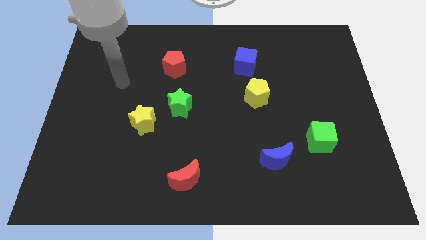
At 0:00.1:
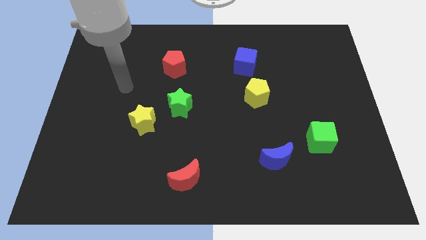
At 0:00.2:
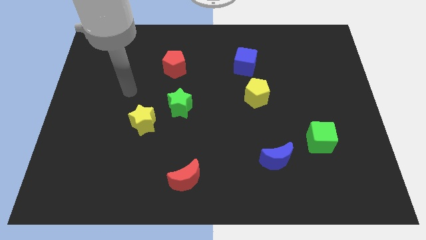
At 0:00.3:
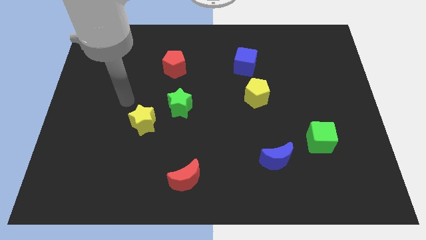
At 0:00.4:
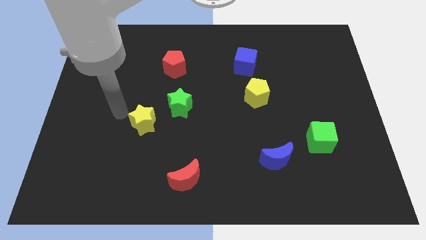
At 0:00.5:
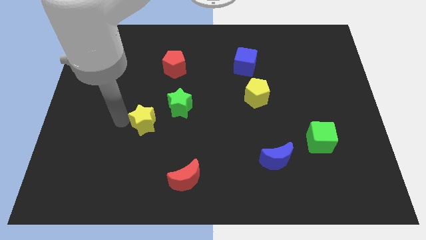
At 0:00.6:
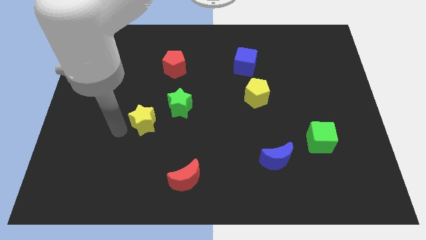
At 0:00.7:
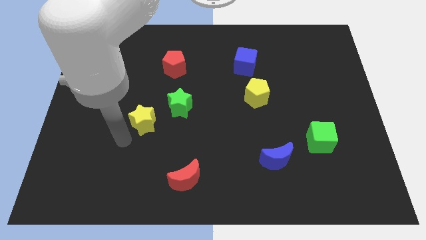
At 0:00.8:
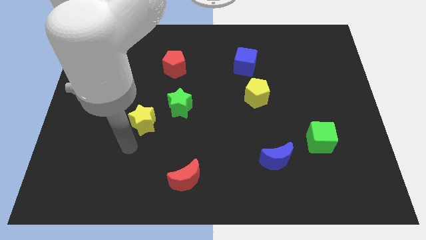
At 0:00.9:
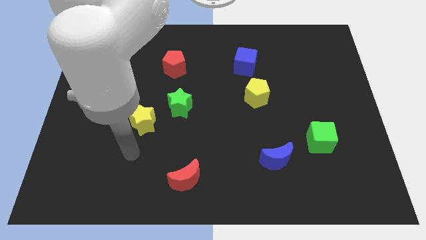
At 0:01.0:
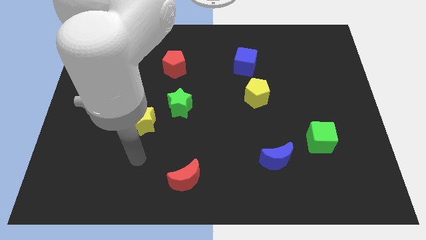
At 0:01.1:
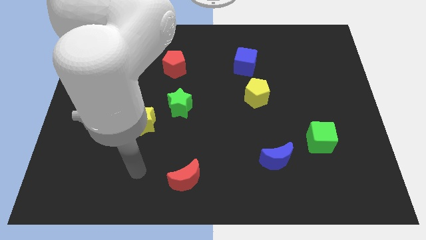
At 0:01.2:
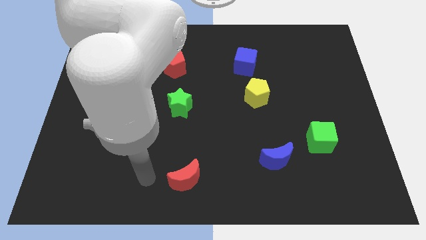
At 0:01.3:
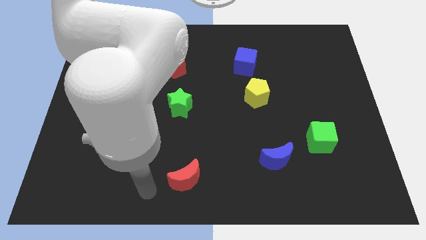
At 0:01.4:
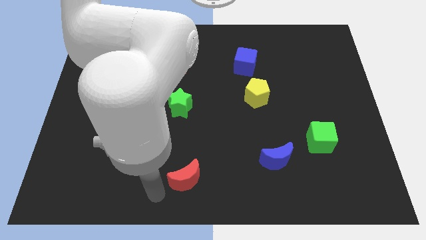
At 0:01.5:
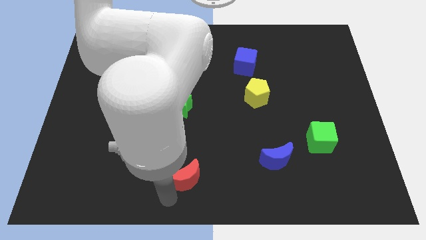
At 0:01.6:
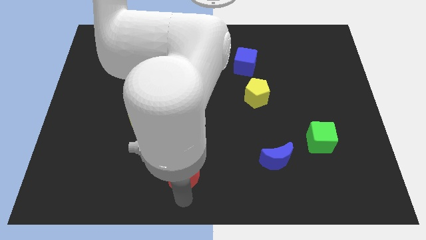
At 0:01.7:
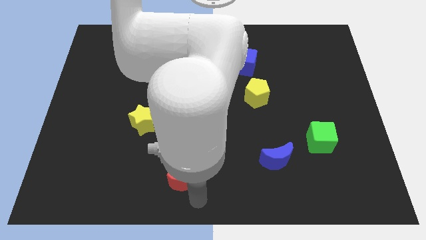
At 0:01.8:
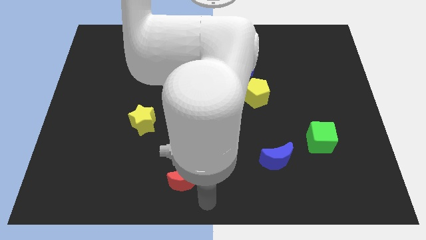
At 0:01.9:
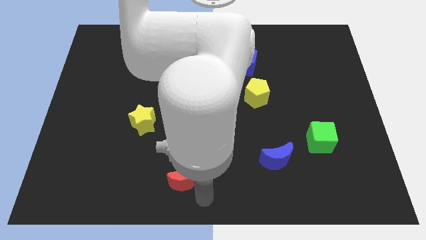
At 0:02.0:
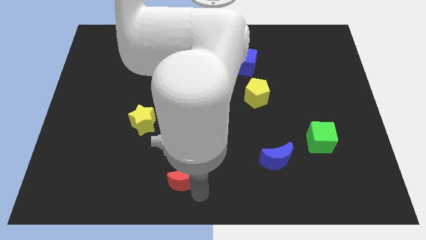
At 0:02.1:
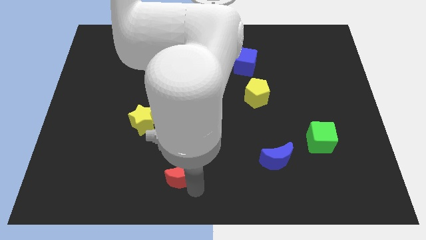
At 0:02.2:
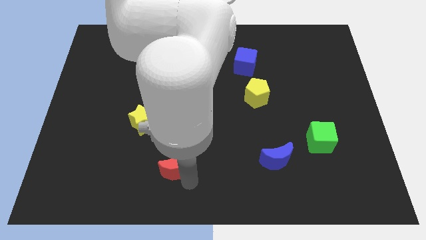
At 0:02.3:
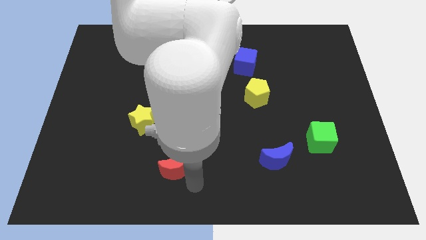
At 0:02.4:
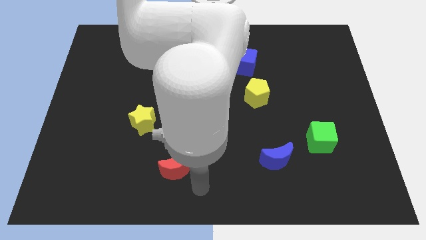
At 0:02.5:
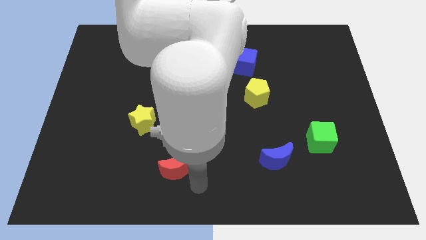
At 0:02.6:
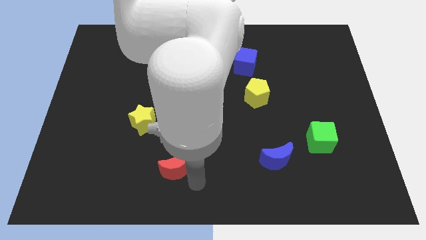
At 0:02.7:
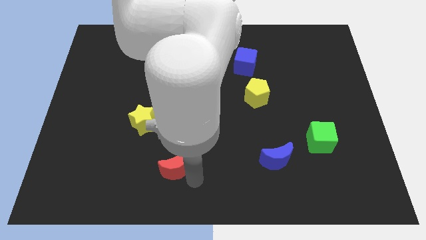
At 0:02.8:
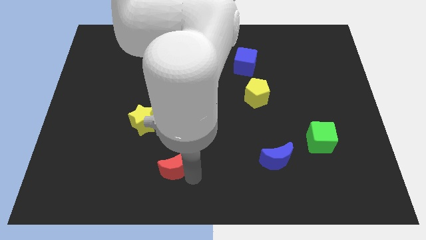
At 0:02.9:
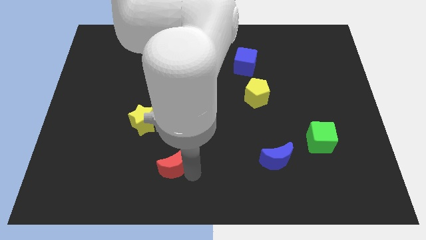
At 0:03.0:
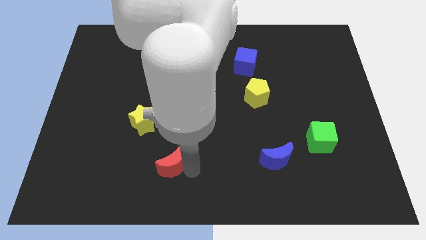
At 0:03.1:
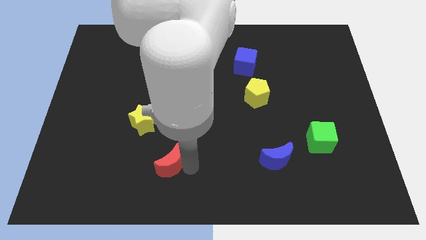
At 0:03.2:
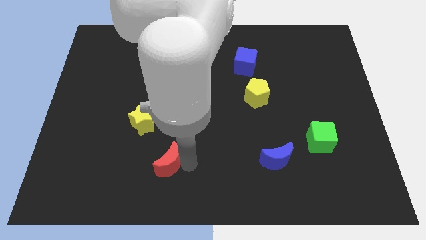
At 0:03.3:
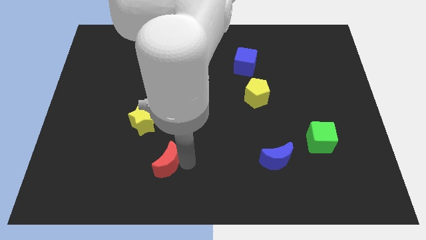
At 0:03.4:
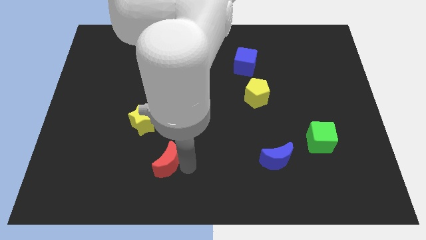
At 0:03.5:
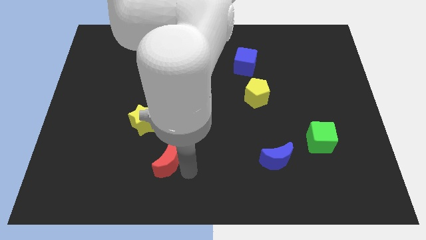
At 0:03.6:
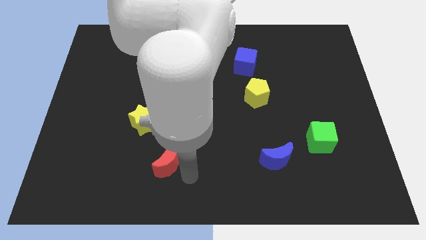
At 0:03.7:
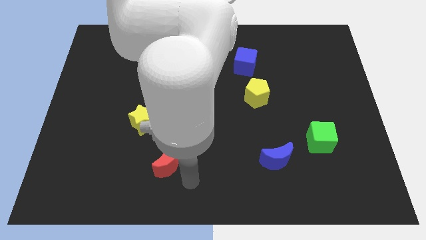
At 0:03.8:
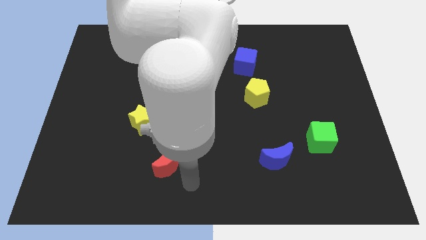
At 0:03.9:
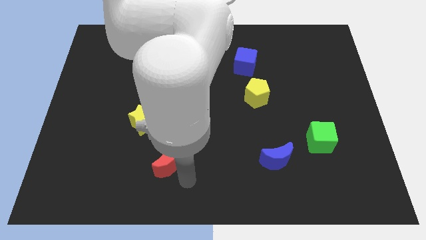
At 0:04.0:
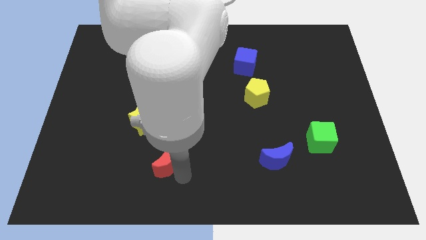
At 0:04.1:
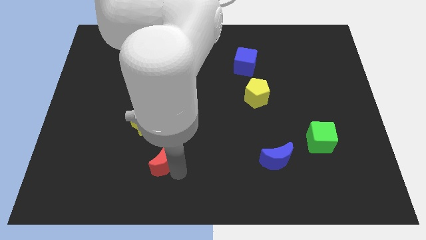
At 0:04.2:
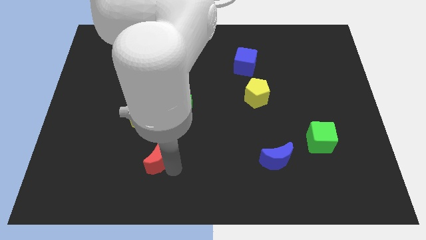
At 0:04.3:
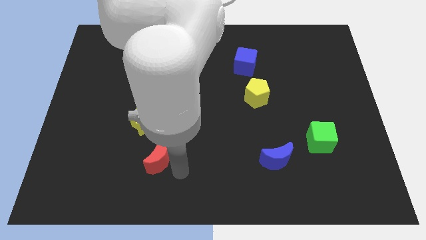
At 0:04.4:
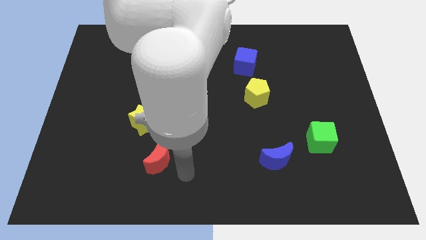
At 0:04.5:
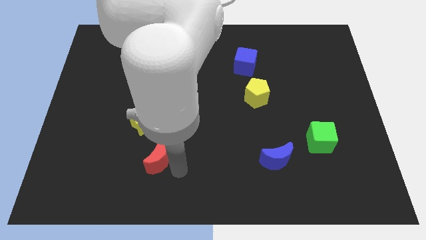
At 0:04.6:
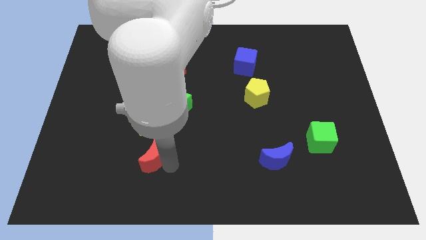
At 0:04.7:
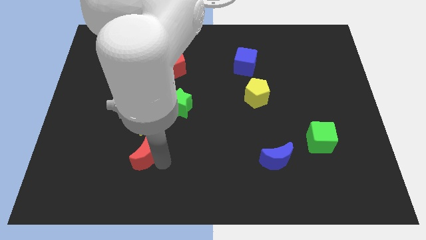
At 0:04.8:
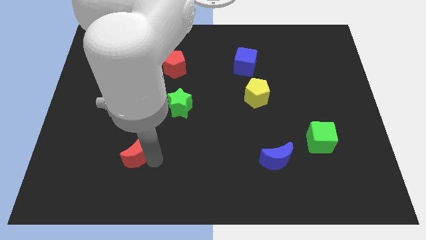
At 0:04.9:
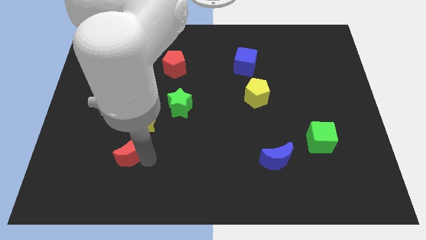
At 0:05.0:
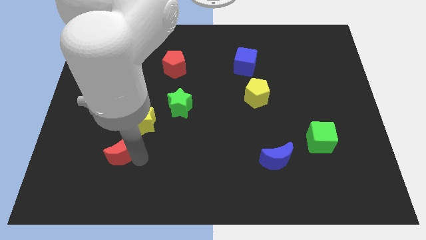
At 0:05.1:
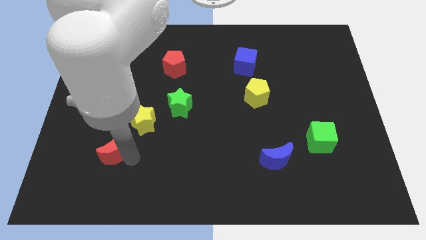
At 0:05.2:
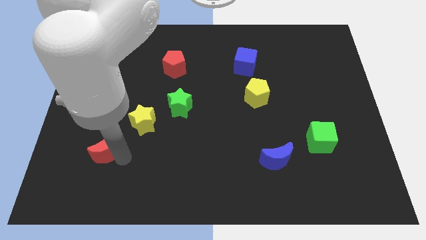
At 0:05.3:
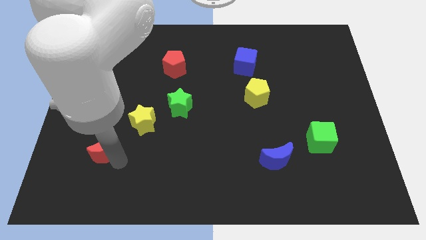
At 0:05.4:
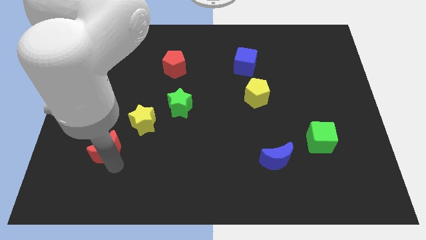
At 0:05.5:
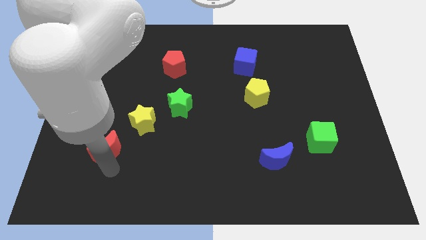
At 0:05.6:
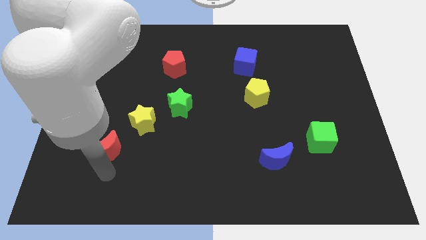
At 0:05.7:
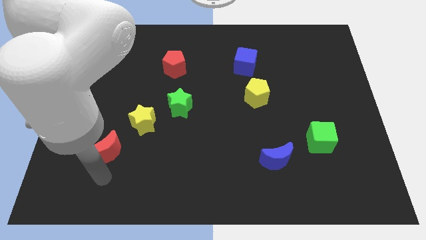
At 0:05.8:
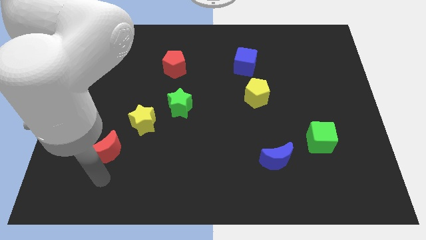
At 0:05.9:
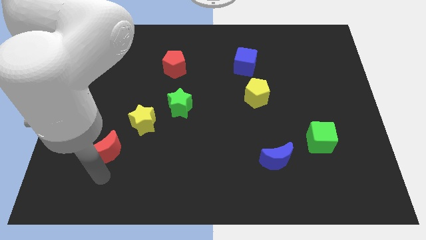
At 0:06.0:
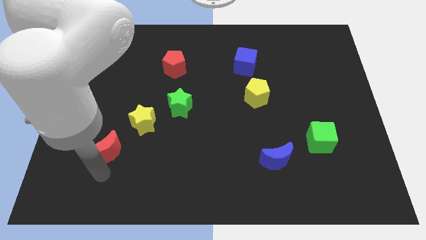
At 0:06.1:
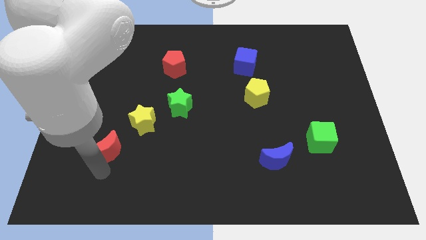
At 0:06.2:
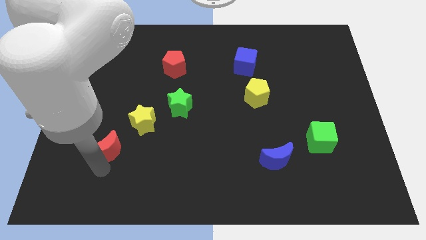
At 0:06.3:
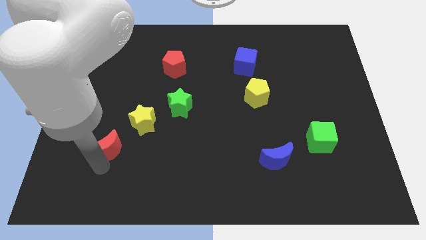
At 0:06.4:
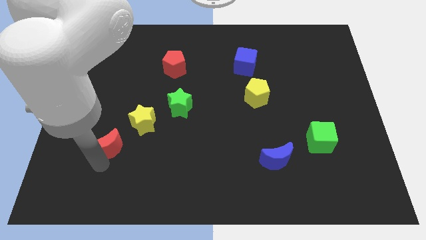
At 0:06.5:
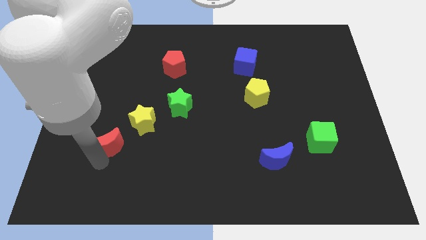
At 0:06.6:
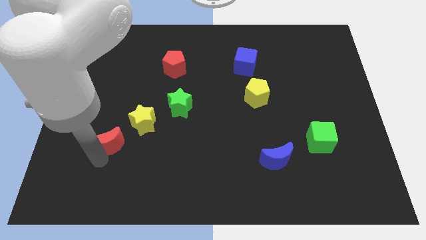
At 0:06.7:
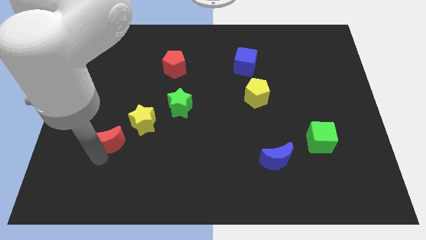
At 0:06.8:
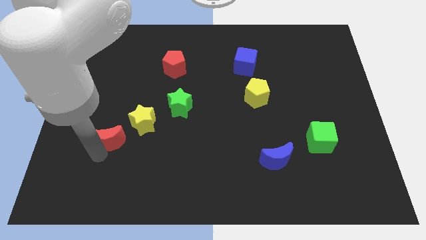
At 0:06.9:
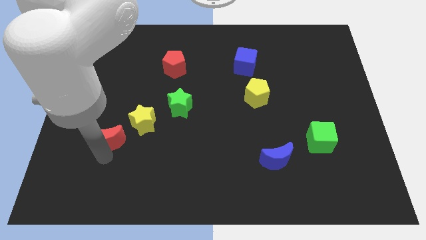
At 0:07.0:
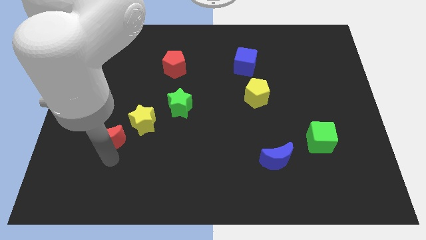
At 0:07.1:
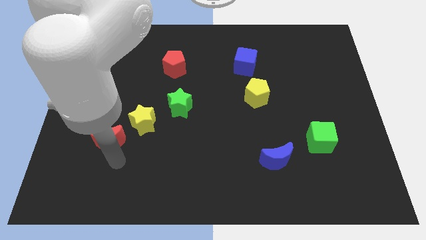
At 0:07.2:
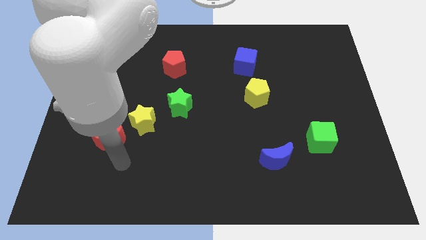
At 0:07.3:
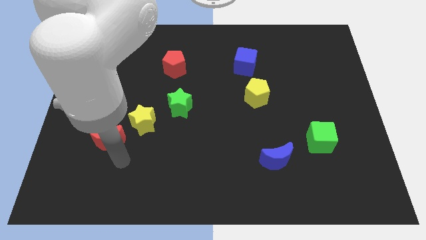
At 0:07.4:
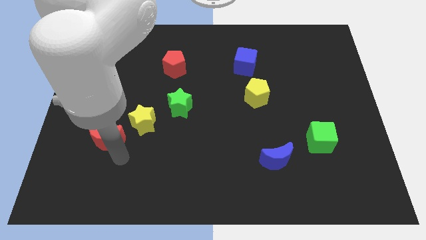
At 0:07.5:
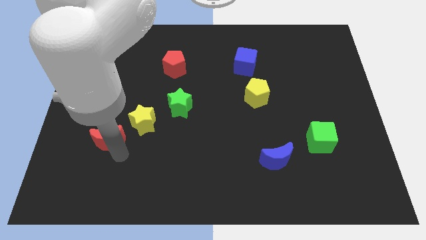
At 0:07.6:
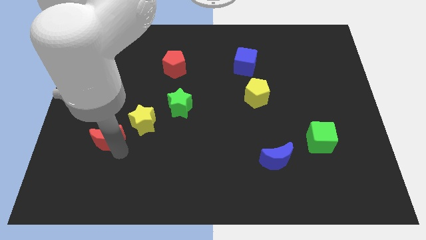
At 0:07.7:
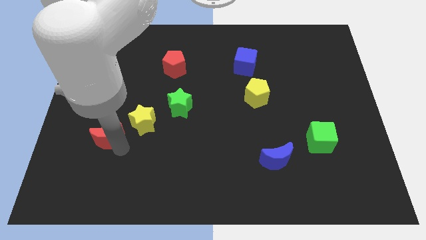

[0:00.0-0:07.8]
slide the red moon just left of the yellow star
